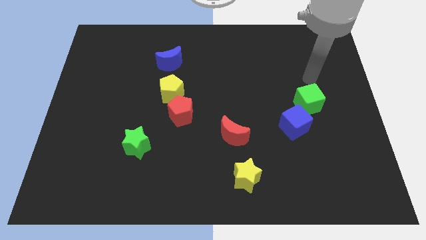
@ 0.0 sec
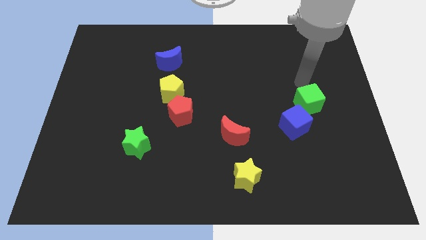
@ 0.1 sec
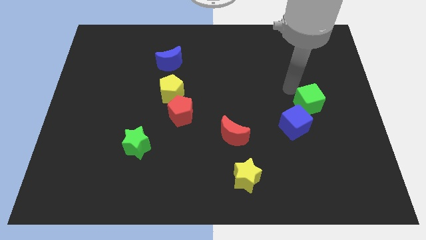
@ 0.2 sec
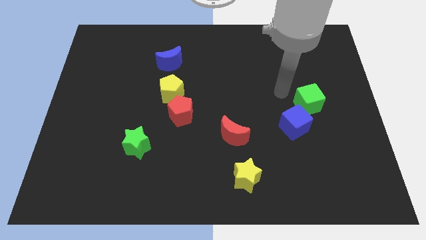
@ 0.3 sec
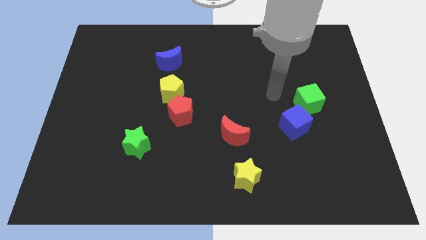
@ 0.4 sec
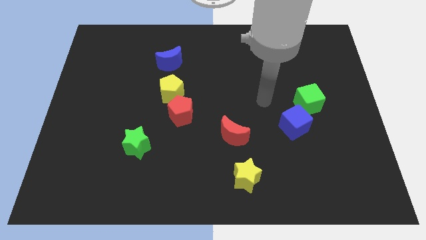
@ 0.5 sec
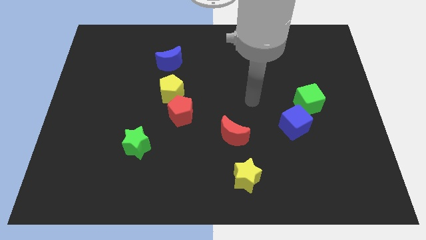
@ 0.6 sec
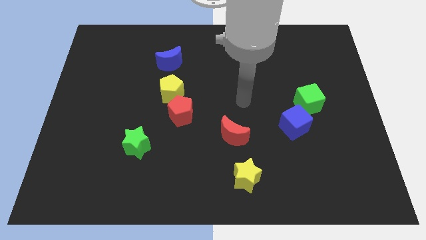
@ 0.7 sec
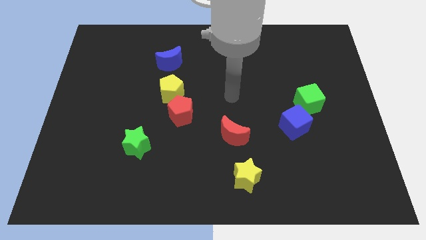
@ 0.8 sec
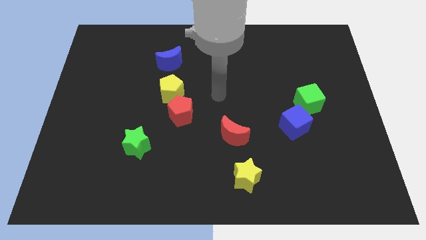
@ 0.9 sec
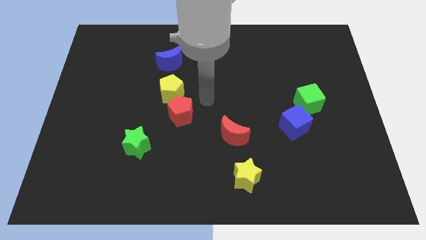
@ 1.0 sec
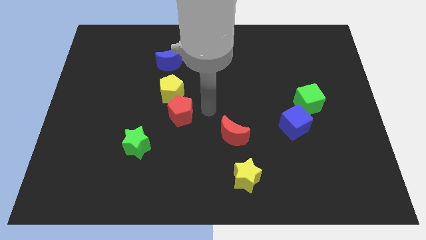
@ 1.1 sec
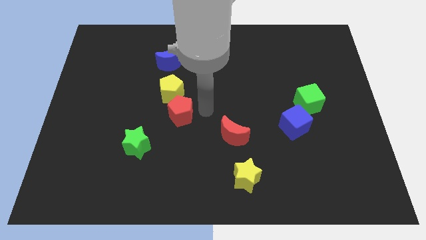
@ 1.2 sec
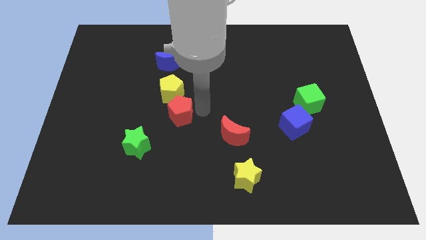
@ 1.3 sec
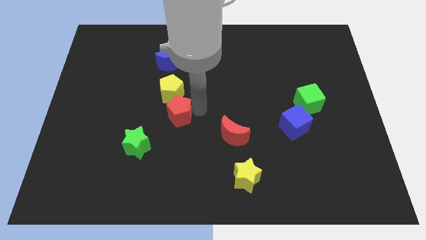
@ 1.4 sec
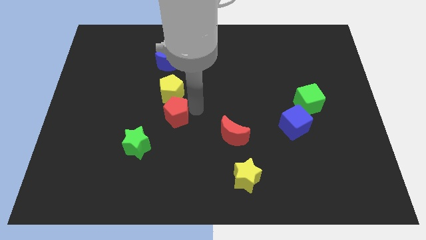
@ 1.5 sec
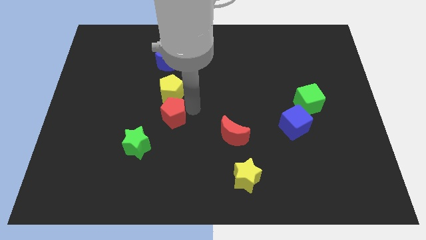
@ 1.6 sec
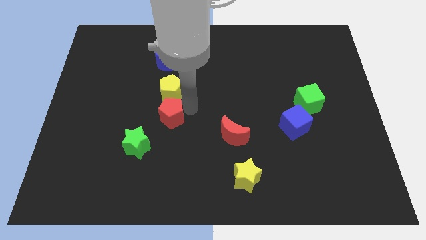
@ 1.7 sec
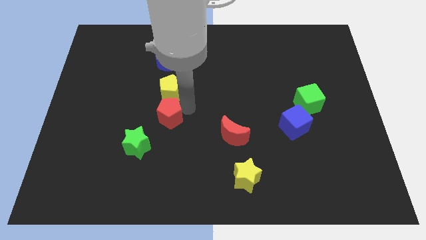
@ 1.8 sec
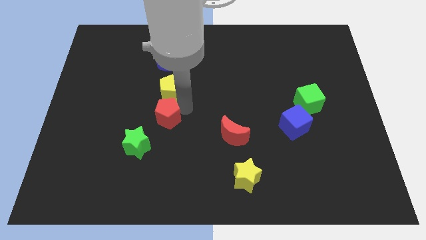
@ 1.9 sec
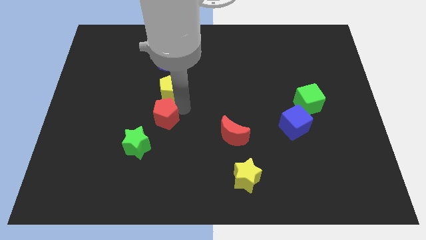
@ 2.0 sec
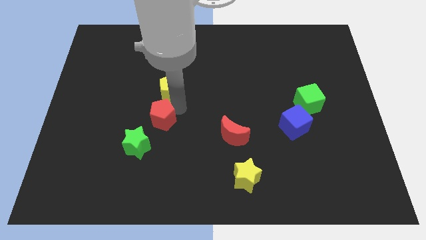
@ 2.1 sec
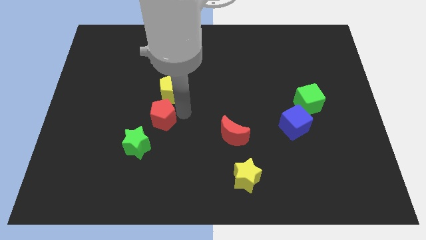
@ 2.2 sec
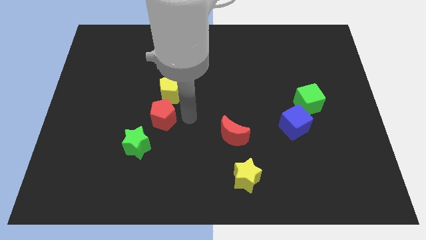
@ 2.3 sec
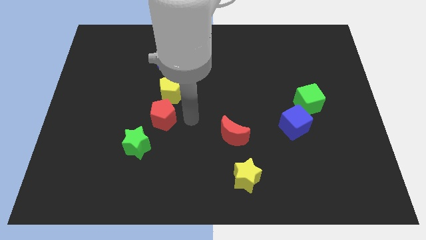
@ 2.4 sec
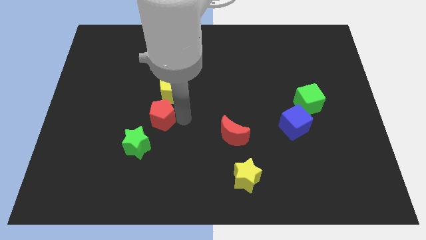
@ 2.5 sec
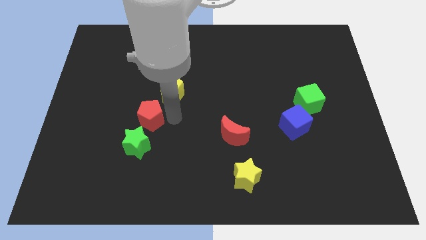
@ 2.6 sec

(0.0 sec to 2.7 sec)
move the red pentagon slightly to the left

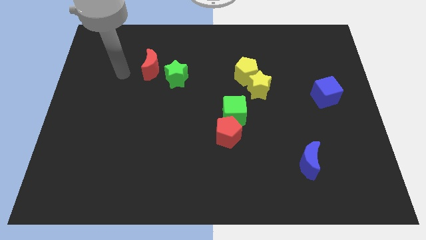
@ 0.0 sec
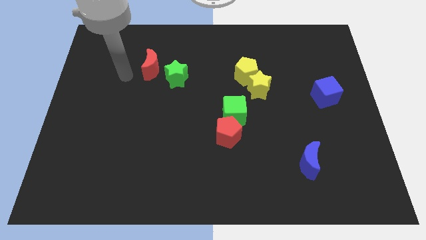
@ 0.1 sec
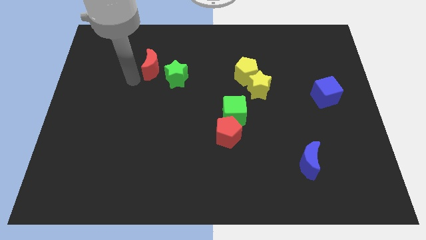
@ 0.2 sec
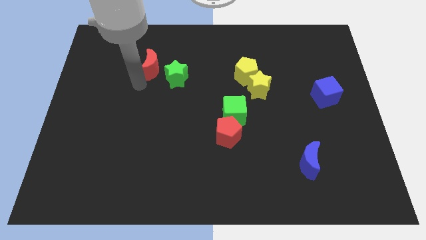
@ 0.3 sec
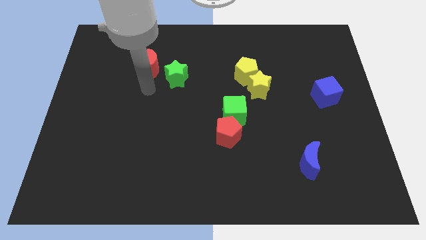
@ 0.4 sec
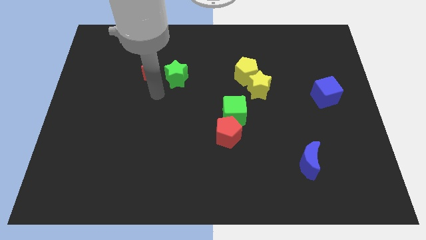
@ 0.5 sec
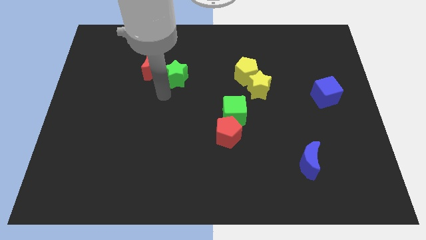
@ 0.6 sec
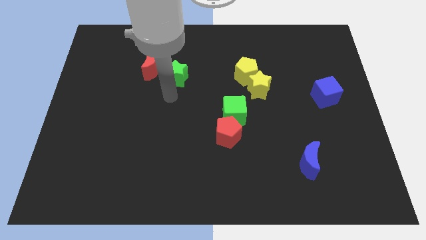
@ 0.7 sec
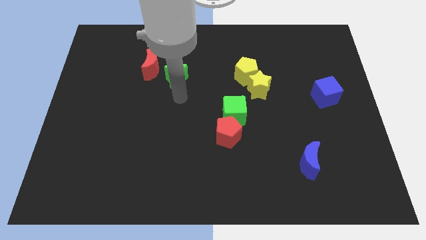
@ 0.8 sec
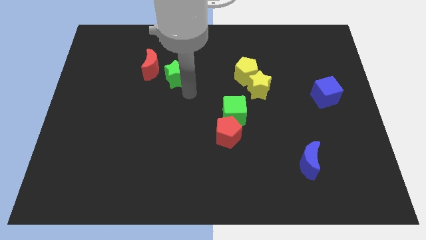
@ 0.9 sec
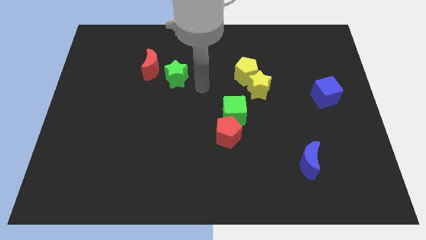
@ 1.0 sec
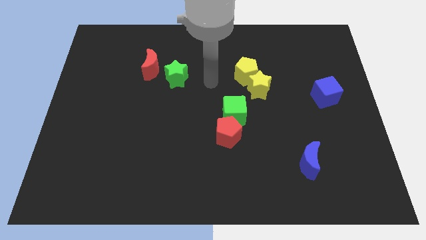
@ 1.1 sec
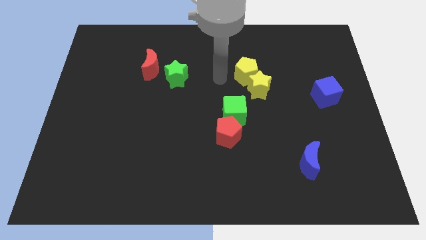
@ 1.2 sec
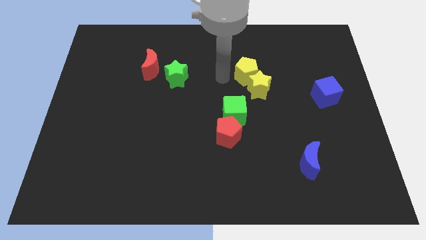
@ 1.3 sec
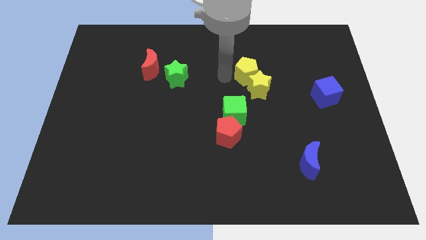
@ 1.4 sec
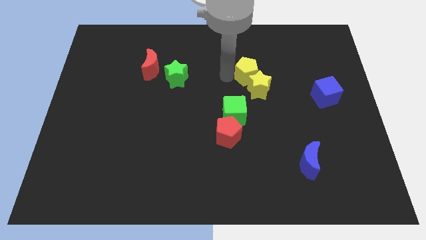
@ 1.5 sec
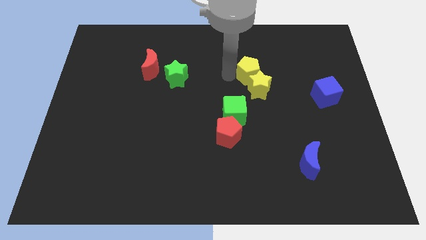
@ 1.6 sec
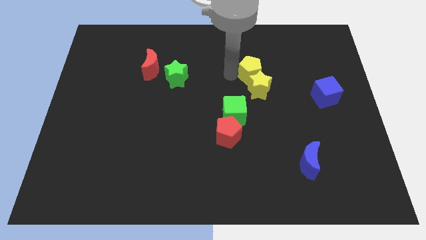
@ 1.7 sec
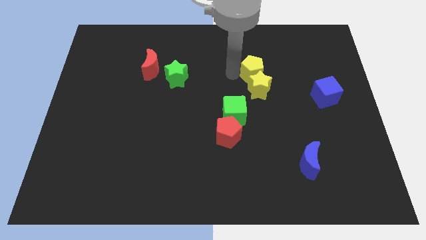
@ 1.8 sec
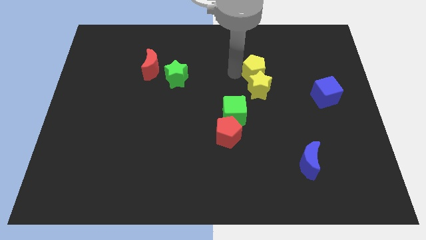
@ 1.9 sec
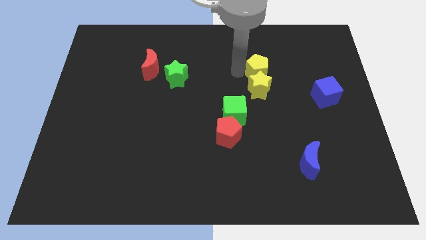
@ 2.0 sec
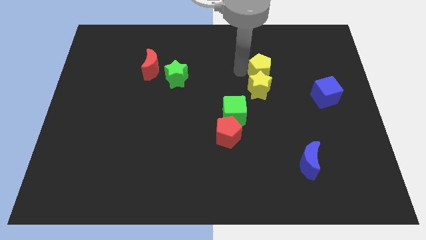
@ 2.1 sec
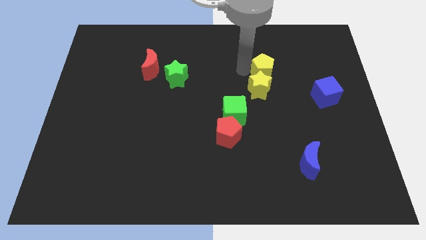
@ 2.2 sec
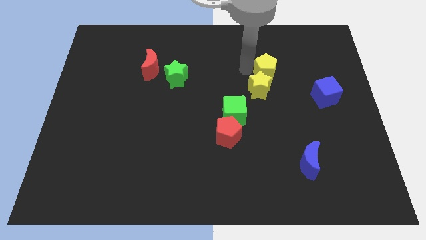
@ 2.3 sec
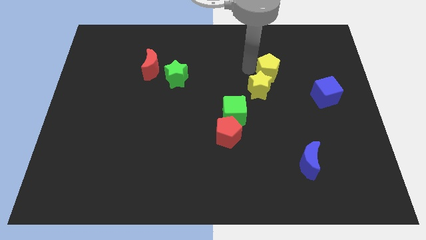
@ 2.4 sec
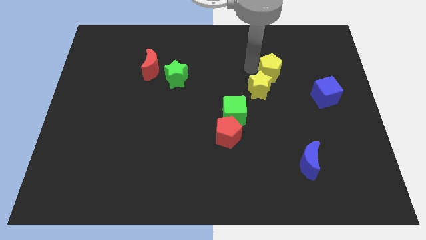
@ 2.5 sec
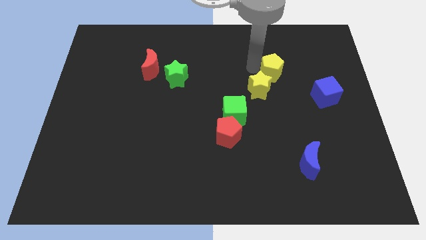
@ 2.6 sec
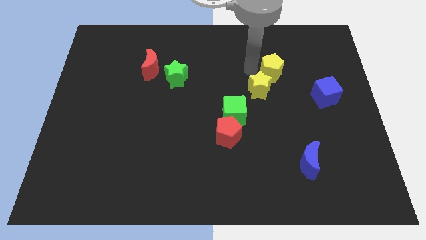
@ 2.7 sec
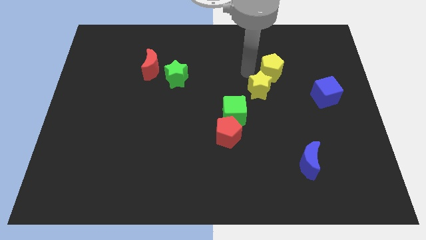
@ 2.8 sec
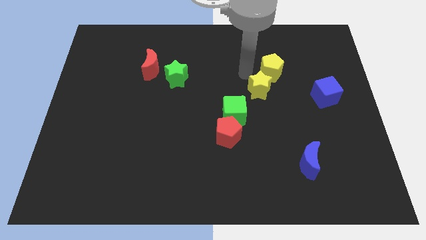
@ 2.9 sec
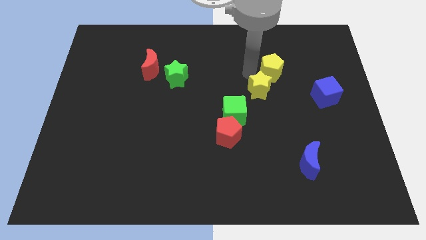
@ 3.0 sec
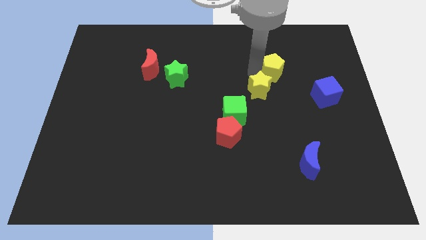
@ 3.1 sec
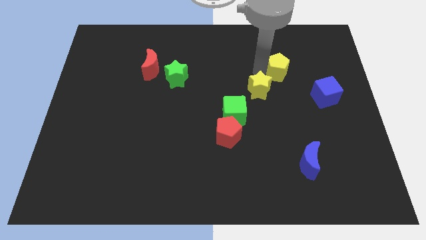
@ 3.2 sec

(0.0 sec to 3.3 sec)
push the yellow pentagon to the right a little

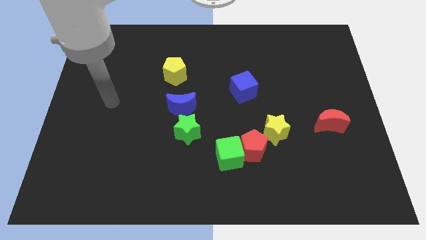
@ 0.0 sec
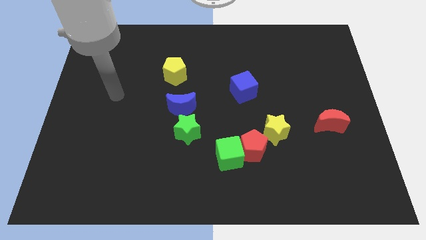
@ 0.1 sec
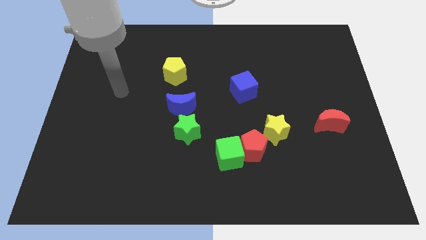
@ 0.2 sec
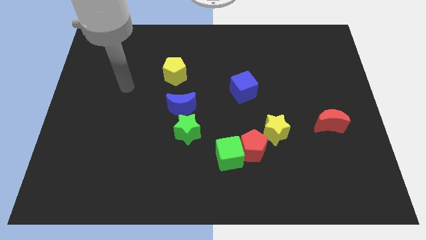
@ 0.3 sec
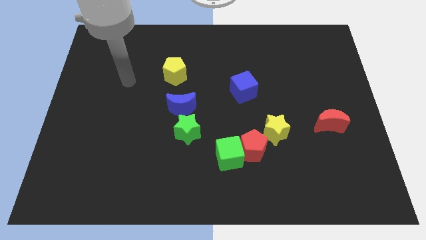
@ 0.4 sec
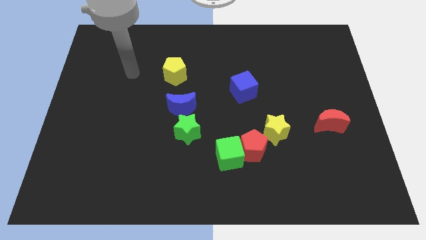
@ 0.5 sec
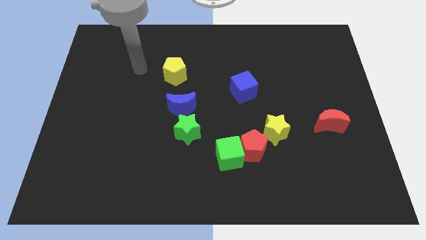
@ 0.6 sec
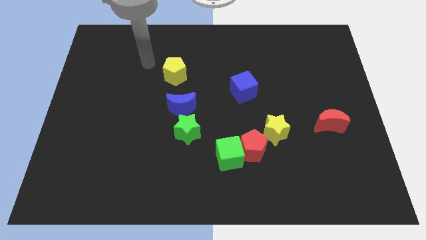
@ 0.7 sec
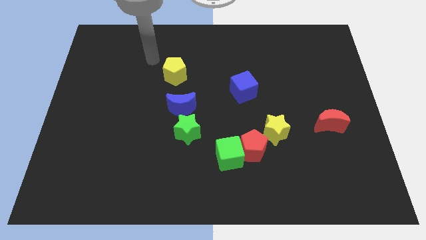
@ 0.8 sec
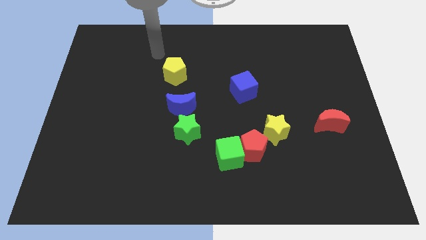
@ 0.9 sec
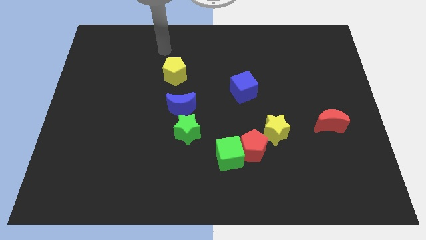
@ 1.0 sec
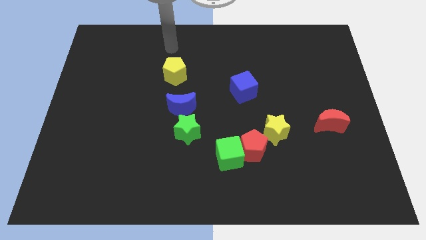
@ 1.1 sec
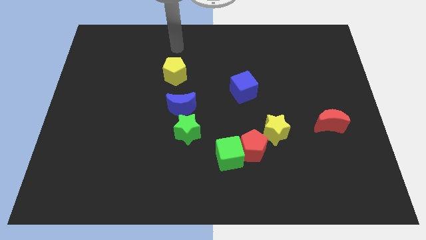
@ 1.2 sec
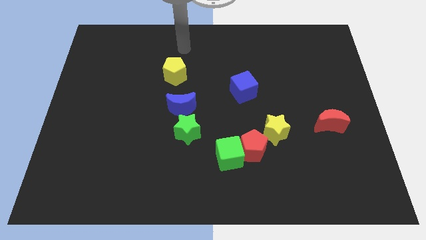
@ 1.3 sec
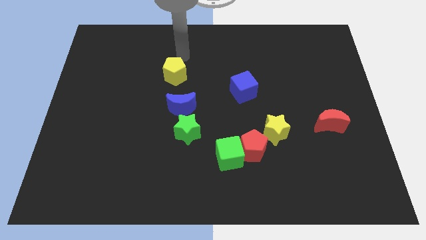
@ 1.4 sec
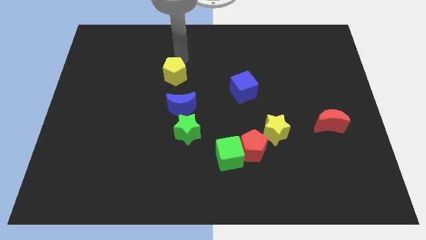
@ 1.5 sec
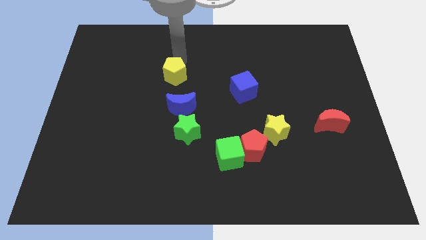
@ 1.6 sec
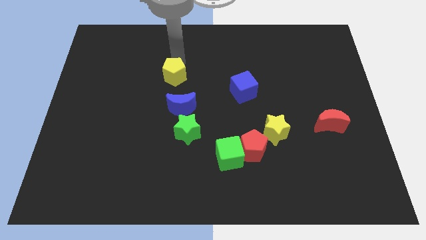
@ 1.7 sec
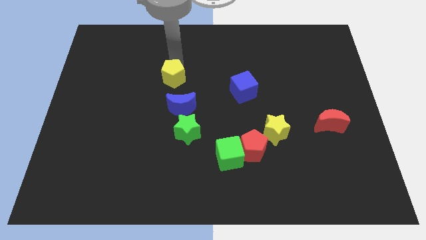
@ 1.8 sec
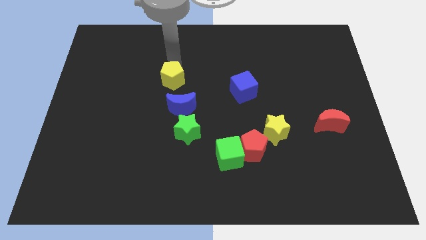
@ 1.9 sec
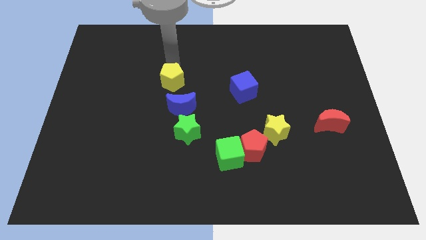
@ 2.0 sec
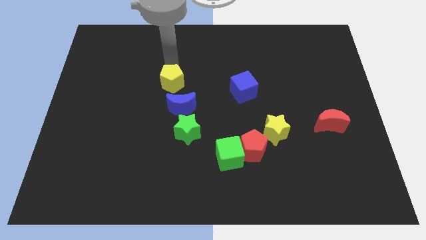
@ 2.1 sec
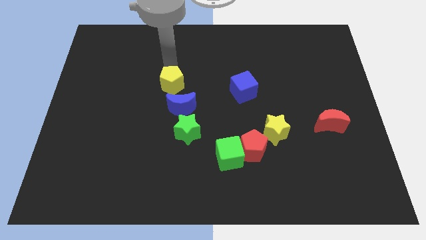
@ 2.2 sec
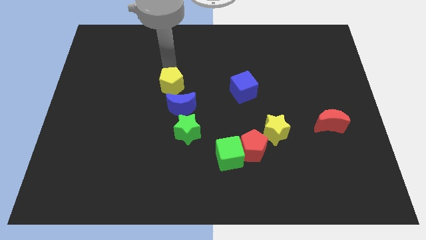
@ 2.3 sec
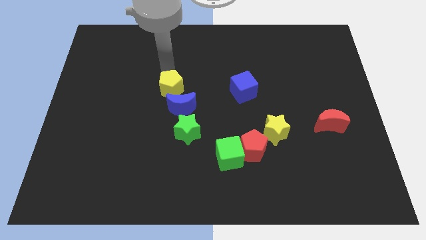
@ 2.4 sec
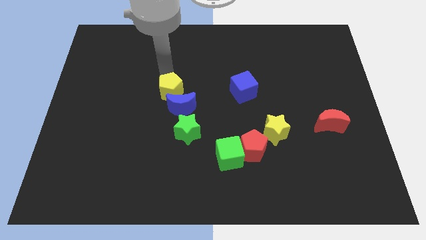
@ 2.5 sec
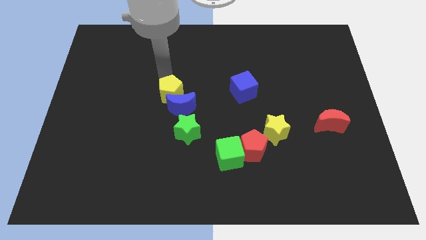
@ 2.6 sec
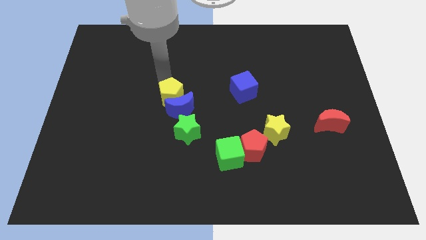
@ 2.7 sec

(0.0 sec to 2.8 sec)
move the yellow pentagon down a little bit
